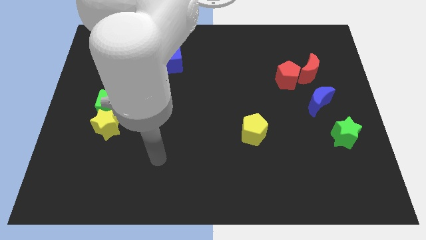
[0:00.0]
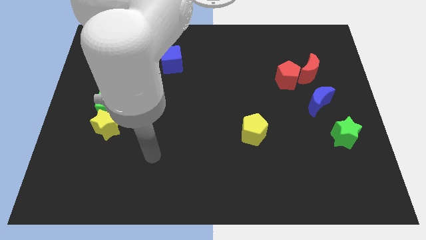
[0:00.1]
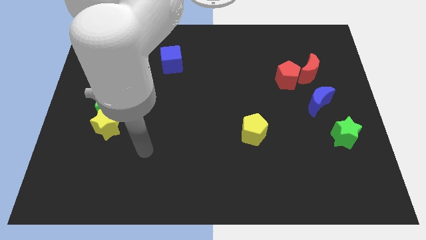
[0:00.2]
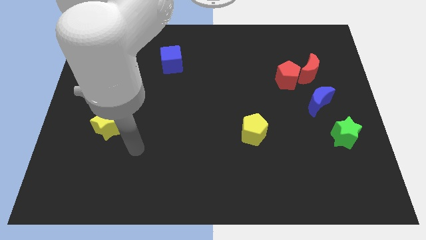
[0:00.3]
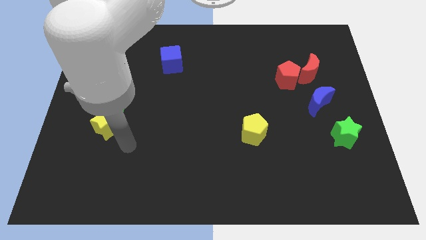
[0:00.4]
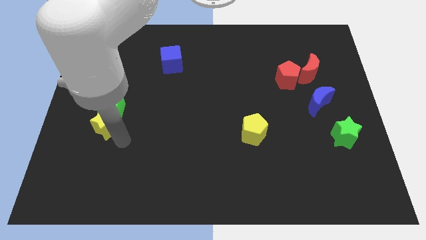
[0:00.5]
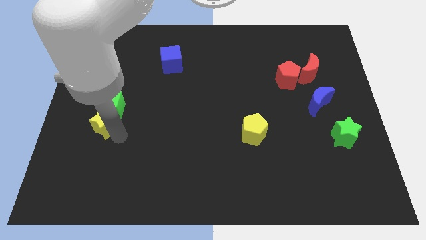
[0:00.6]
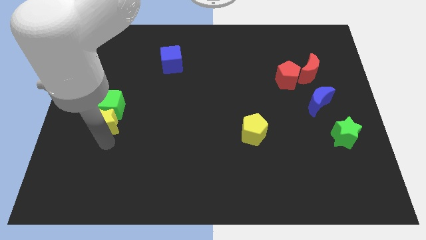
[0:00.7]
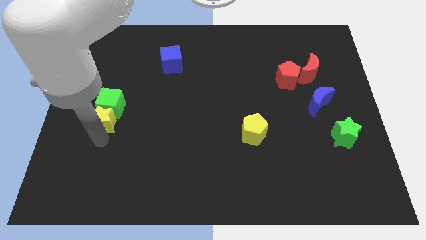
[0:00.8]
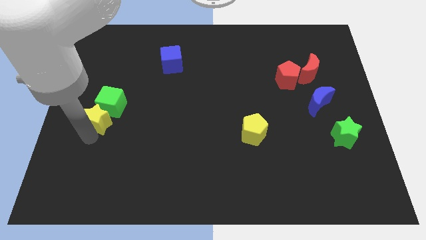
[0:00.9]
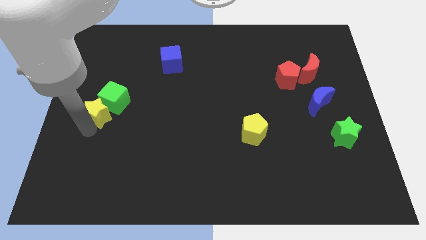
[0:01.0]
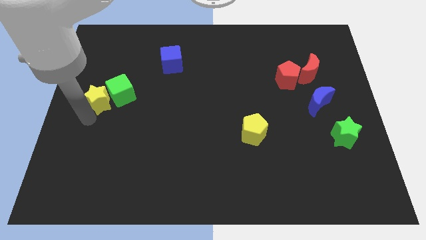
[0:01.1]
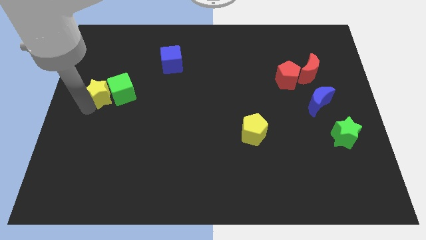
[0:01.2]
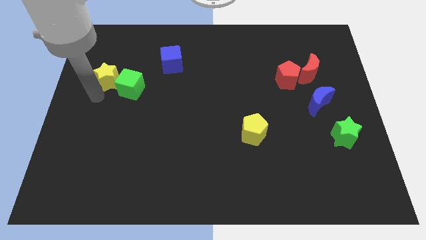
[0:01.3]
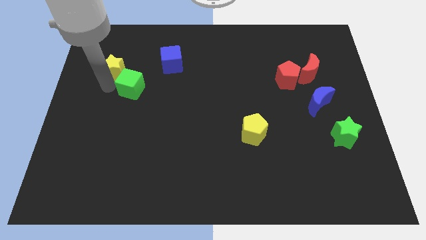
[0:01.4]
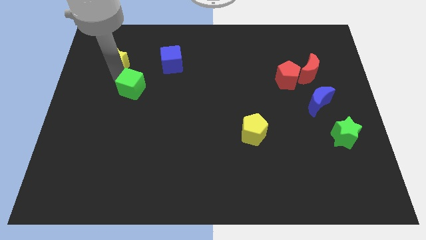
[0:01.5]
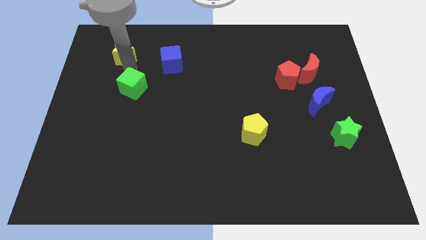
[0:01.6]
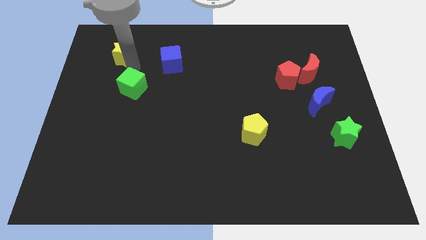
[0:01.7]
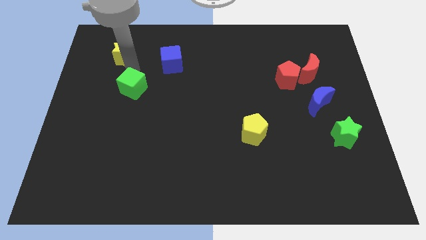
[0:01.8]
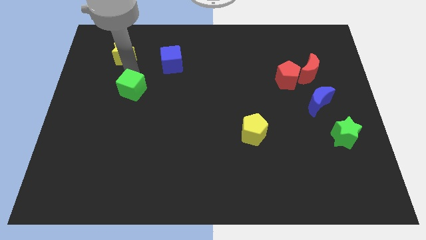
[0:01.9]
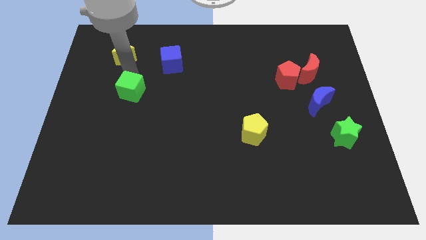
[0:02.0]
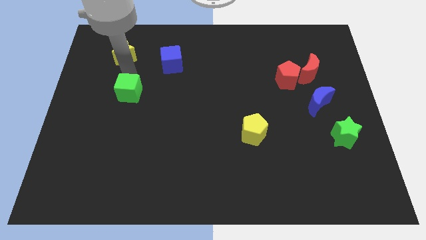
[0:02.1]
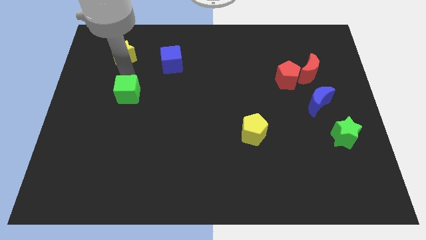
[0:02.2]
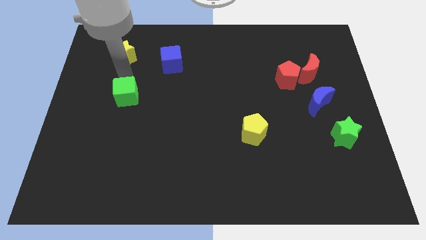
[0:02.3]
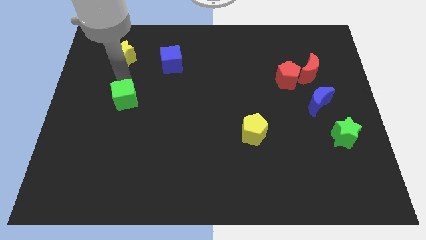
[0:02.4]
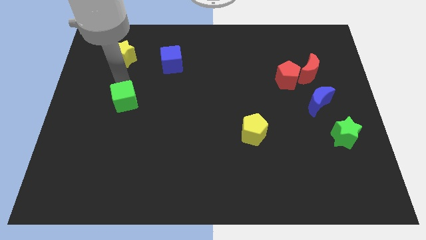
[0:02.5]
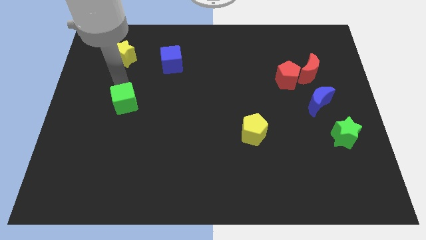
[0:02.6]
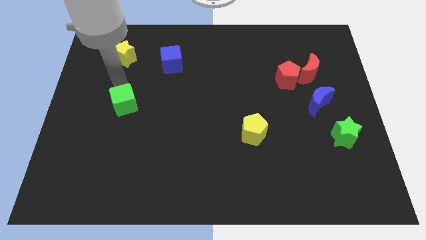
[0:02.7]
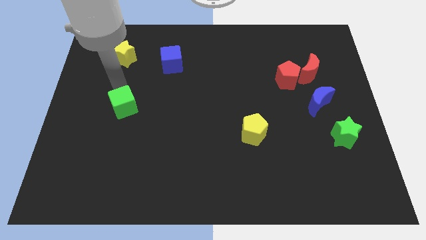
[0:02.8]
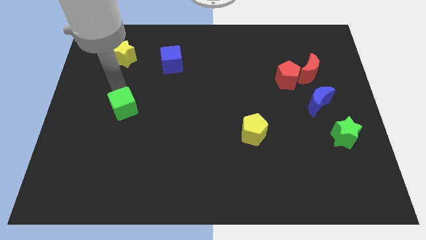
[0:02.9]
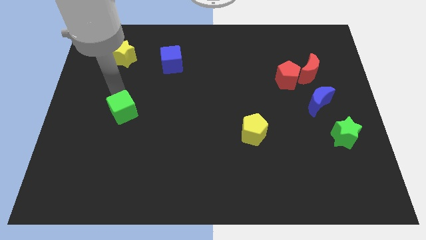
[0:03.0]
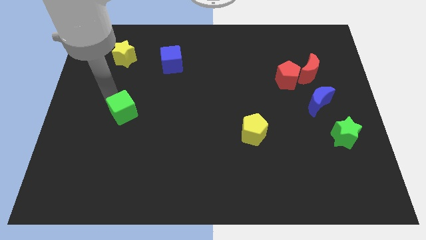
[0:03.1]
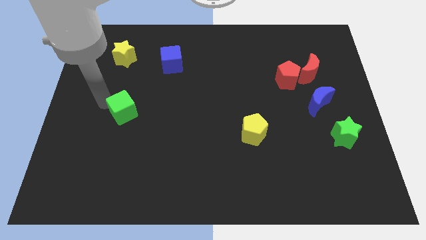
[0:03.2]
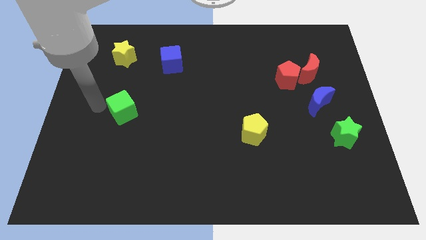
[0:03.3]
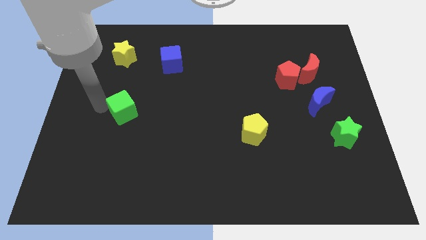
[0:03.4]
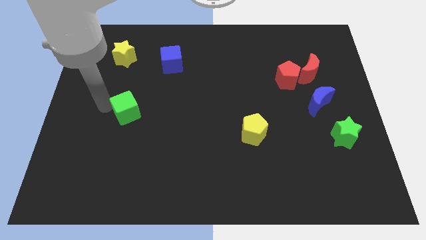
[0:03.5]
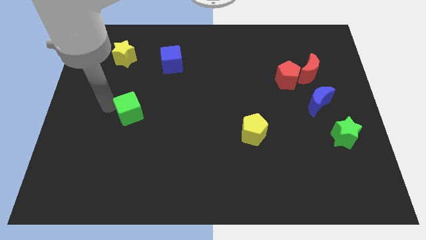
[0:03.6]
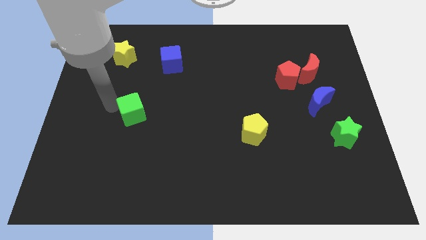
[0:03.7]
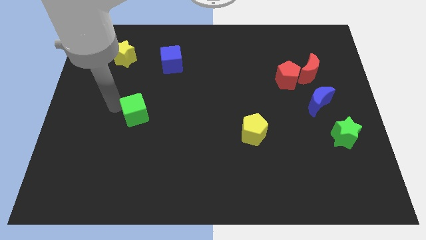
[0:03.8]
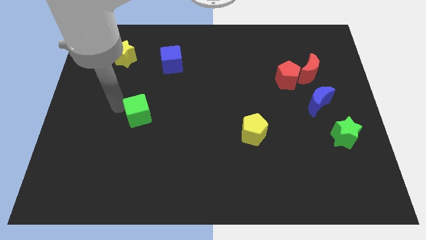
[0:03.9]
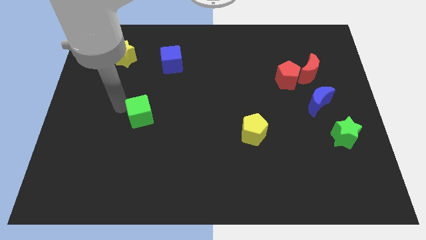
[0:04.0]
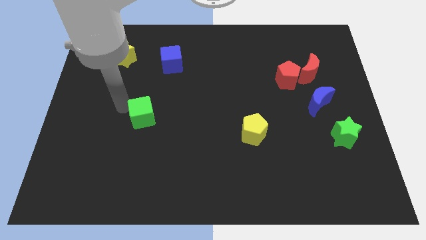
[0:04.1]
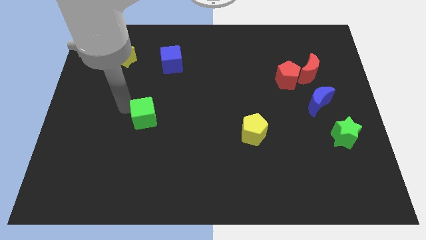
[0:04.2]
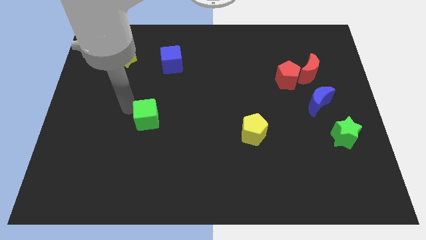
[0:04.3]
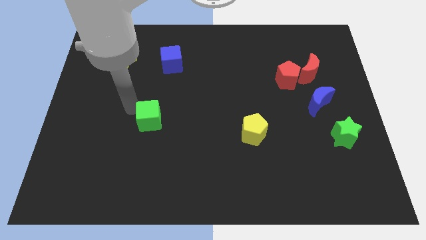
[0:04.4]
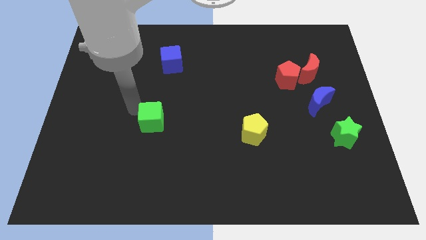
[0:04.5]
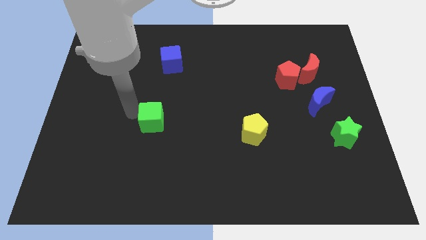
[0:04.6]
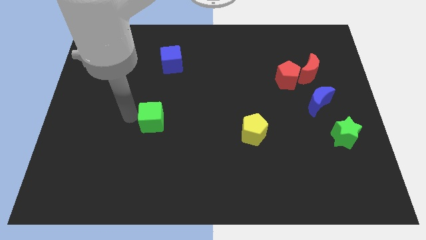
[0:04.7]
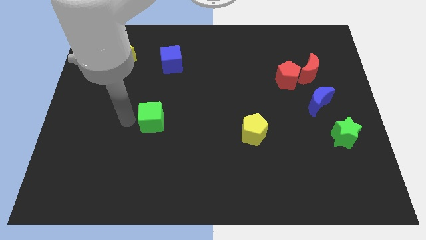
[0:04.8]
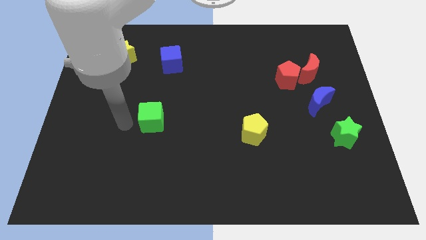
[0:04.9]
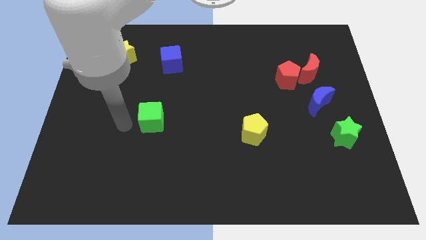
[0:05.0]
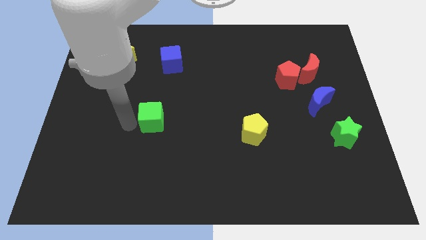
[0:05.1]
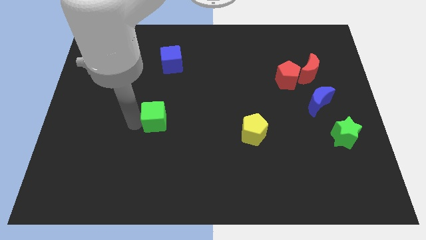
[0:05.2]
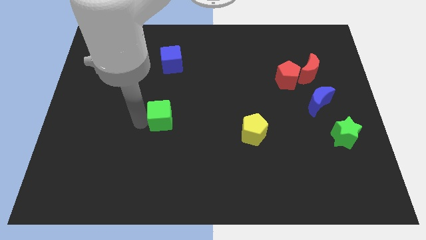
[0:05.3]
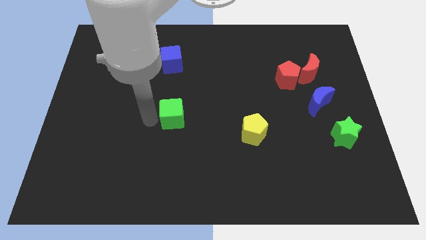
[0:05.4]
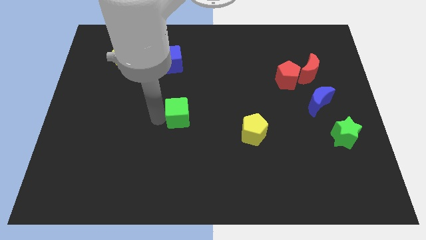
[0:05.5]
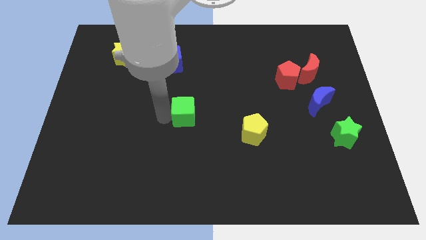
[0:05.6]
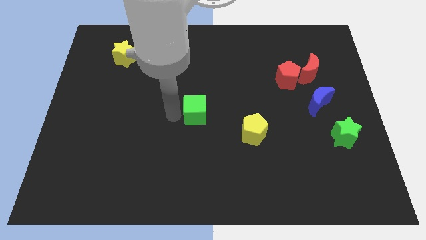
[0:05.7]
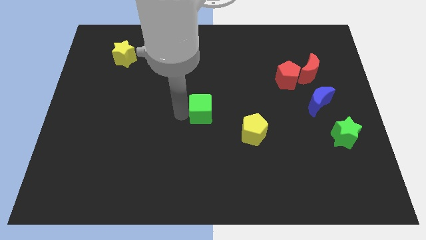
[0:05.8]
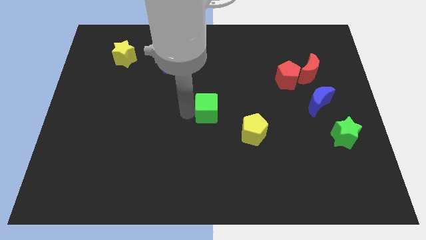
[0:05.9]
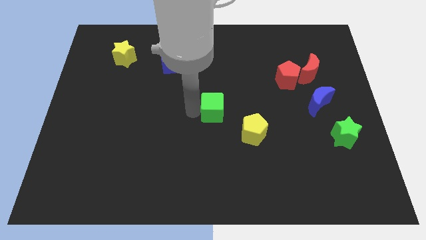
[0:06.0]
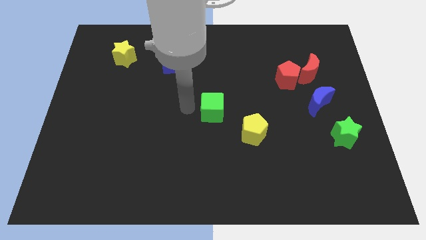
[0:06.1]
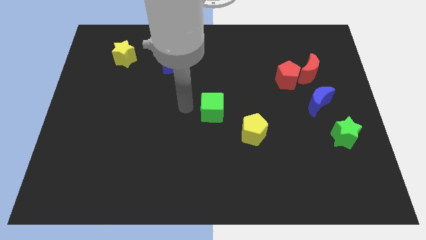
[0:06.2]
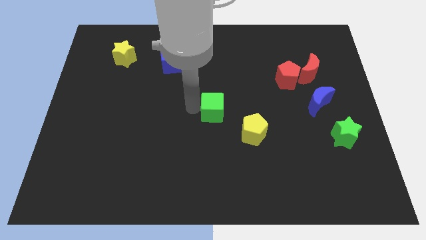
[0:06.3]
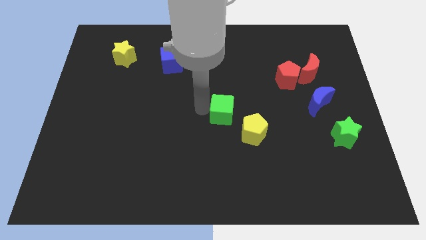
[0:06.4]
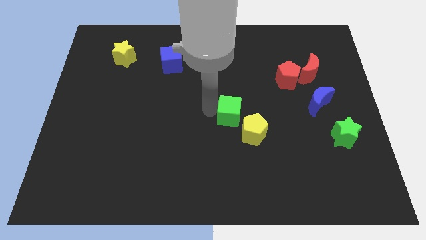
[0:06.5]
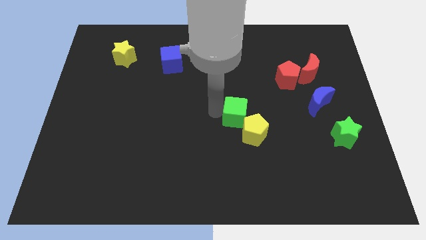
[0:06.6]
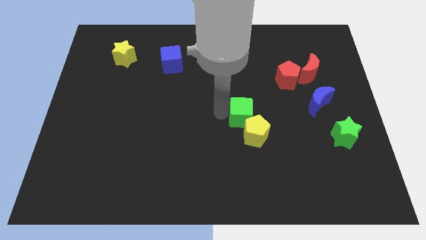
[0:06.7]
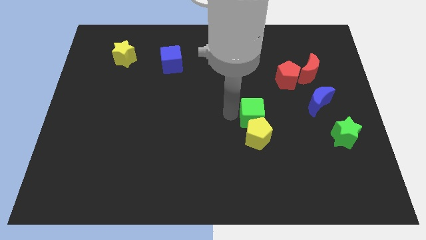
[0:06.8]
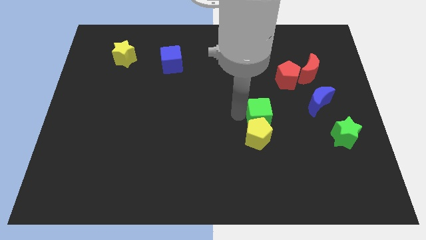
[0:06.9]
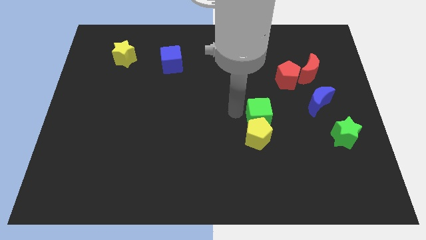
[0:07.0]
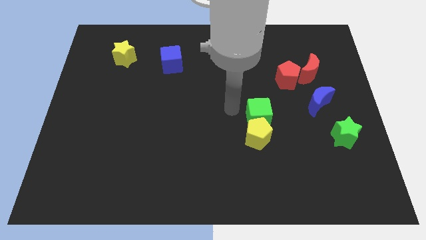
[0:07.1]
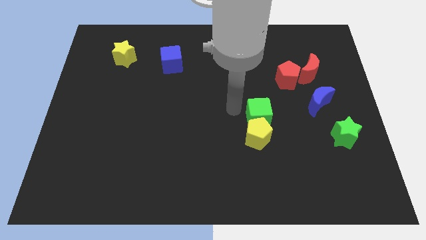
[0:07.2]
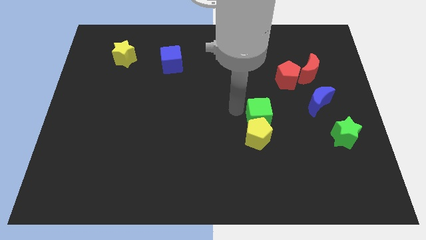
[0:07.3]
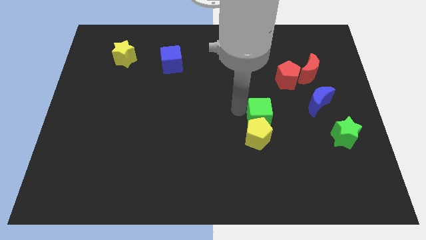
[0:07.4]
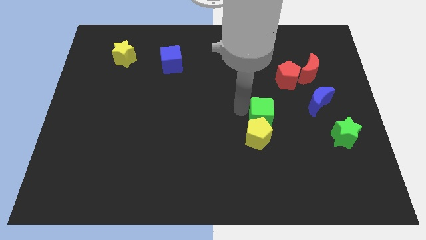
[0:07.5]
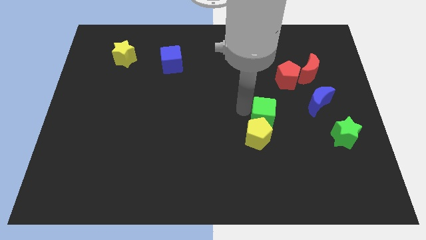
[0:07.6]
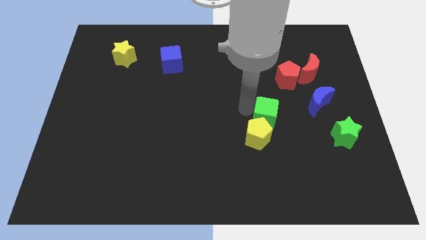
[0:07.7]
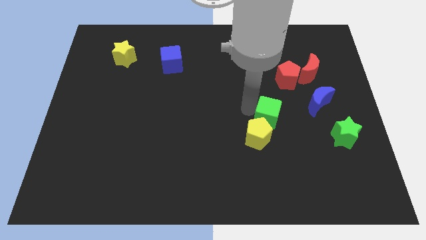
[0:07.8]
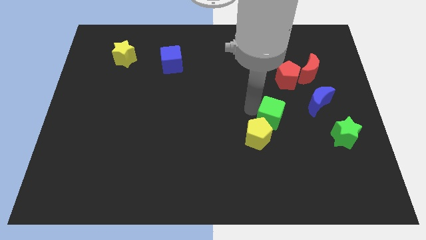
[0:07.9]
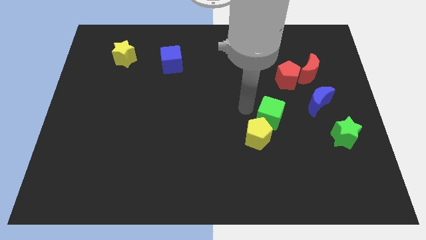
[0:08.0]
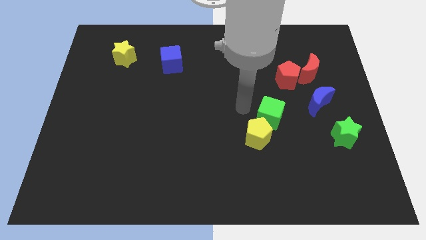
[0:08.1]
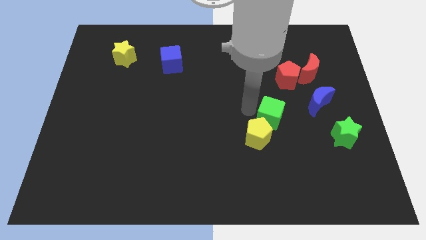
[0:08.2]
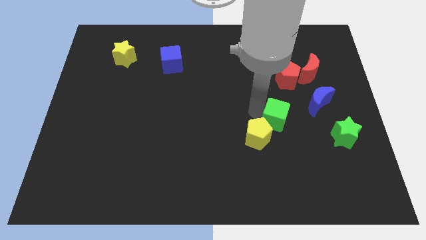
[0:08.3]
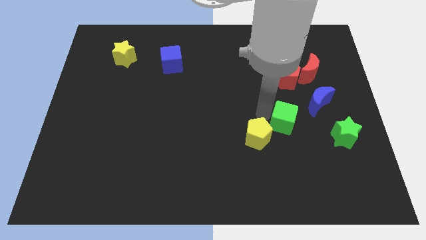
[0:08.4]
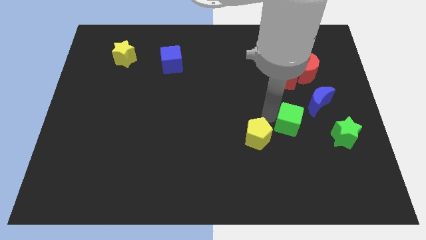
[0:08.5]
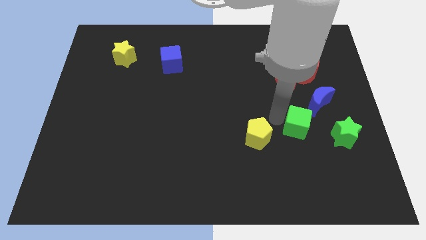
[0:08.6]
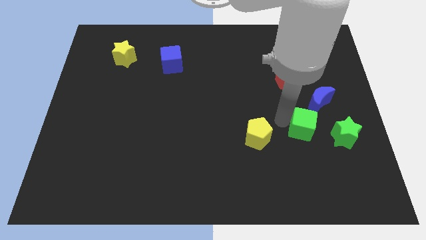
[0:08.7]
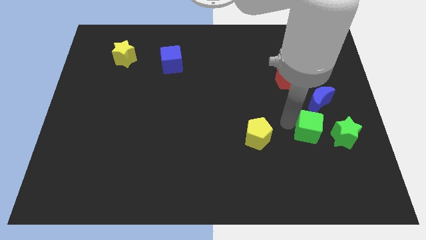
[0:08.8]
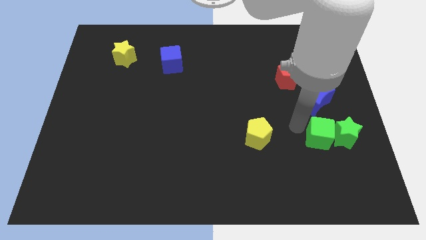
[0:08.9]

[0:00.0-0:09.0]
move the green cube close to the green star
